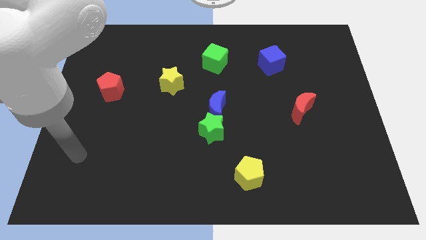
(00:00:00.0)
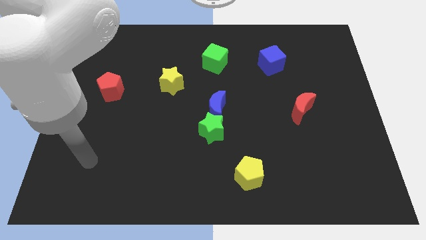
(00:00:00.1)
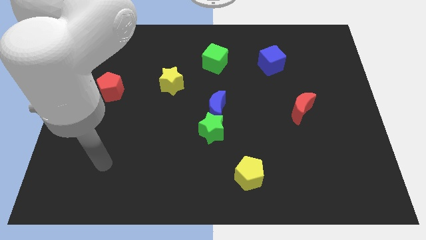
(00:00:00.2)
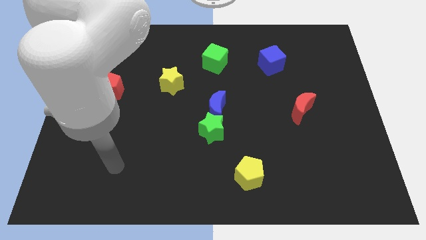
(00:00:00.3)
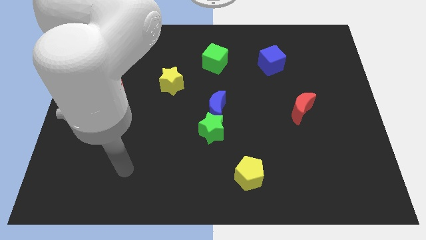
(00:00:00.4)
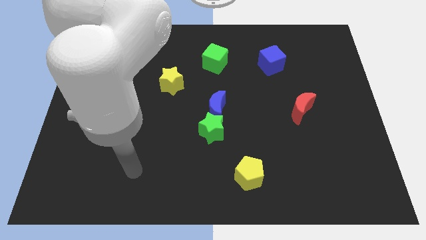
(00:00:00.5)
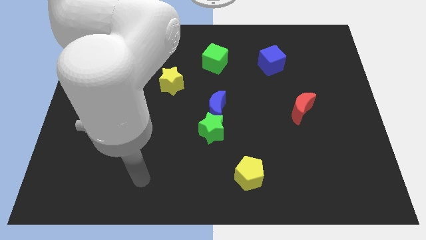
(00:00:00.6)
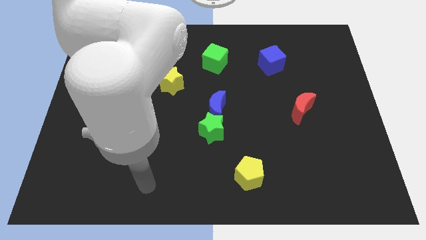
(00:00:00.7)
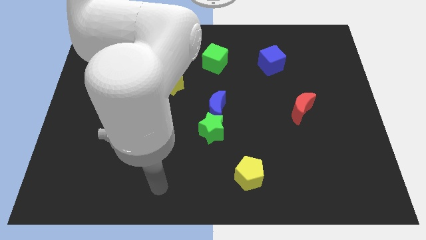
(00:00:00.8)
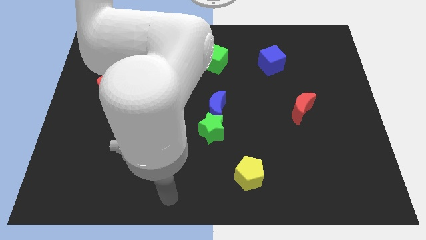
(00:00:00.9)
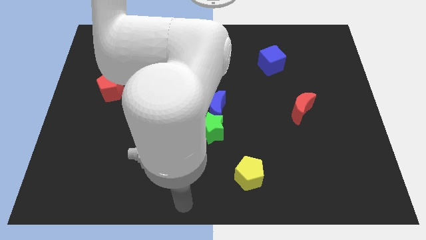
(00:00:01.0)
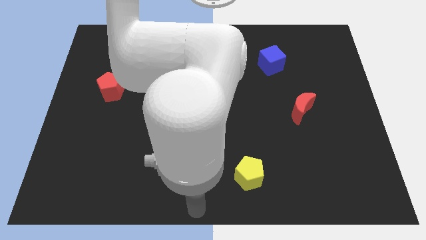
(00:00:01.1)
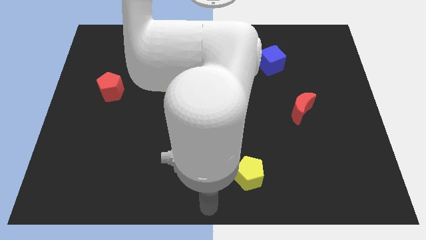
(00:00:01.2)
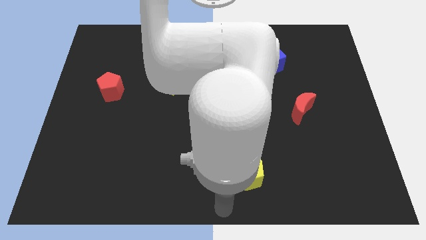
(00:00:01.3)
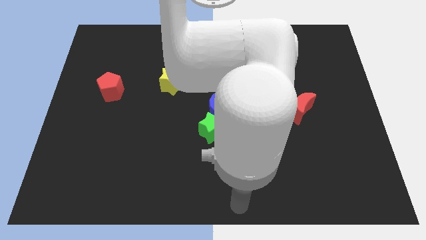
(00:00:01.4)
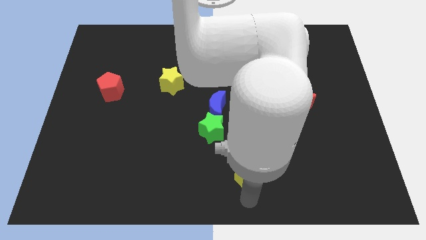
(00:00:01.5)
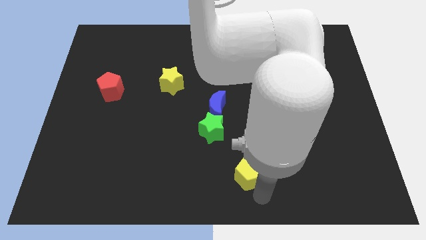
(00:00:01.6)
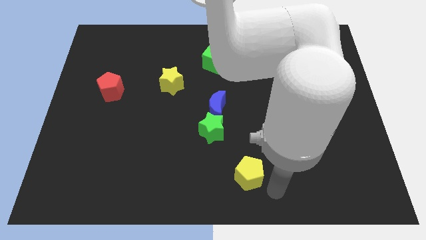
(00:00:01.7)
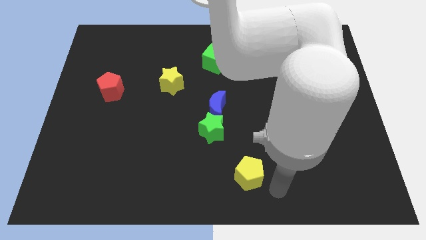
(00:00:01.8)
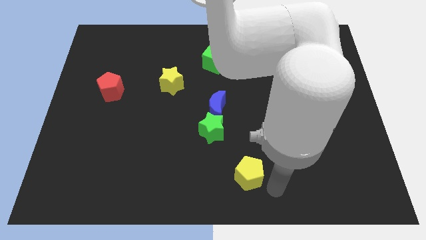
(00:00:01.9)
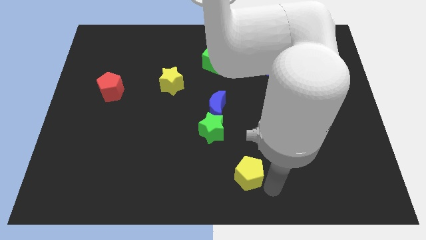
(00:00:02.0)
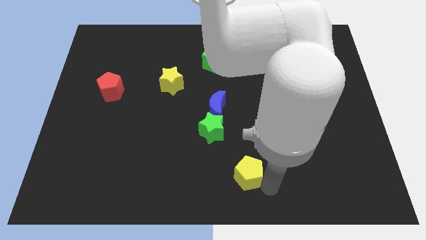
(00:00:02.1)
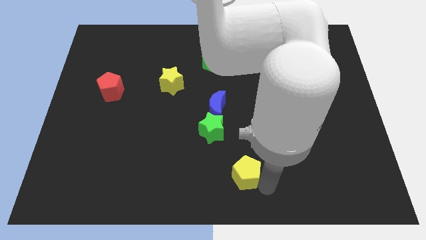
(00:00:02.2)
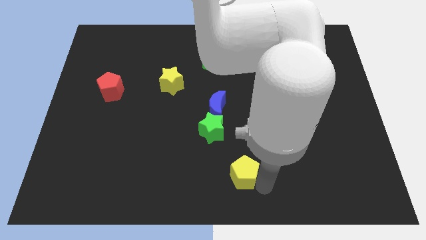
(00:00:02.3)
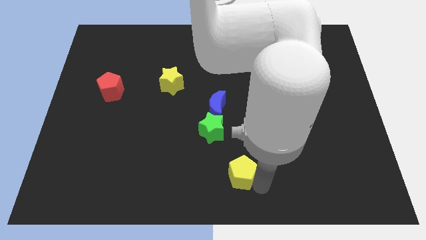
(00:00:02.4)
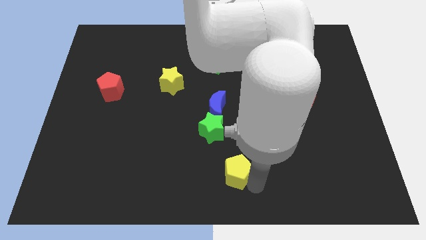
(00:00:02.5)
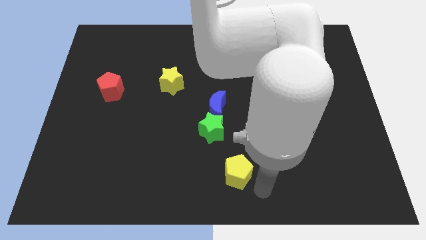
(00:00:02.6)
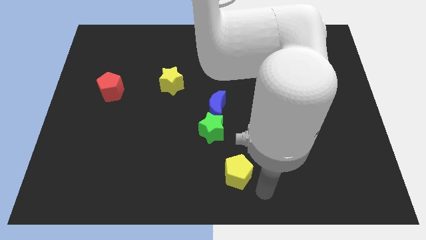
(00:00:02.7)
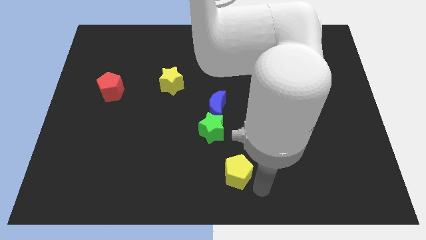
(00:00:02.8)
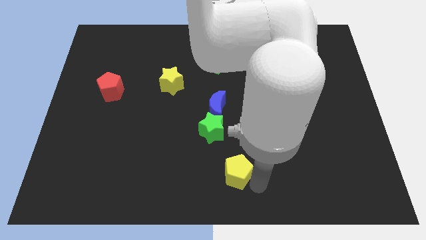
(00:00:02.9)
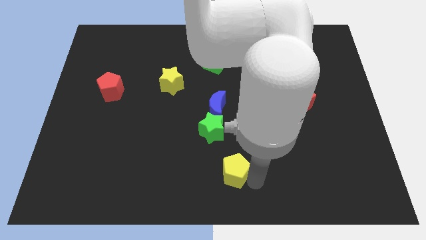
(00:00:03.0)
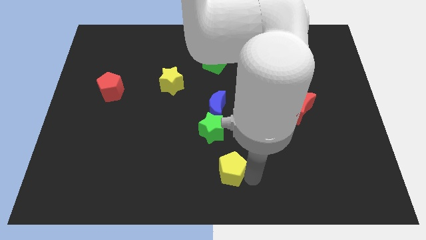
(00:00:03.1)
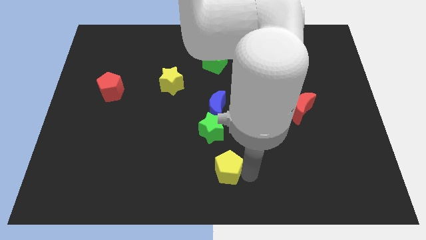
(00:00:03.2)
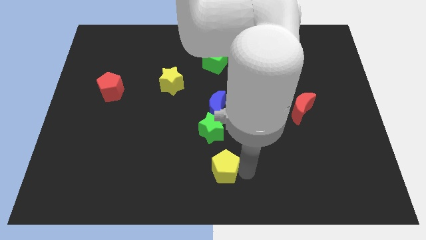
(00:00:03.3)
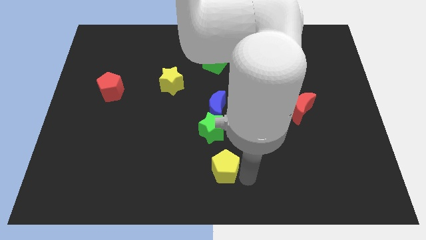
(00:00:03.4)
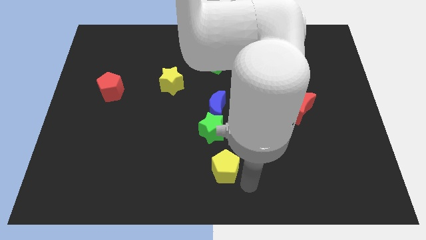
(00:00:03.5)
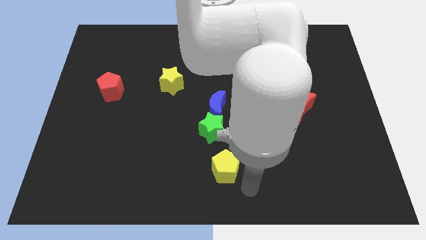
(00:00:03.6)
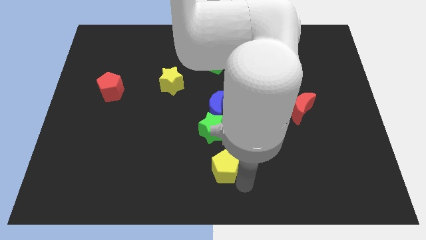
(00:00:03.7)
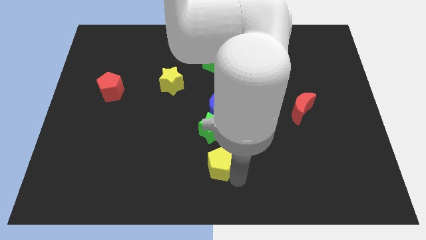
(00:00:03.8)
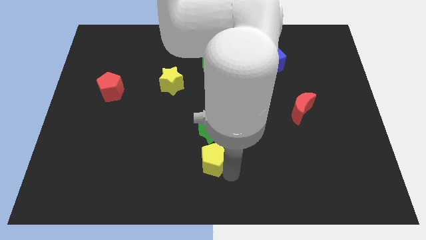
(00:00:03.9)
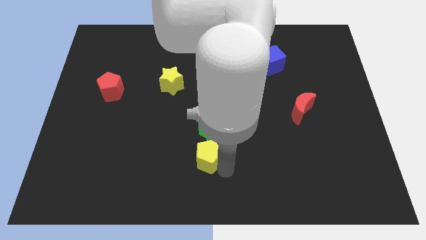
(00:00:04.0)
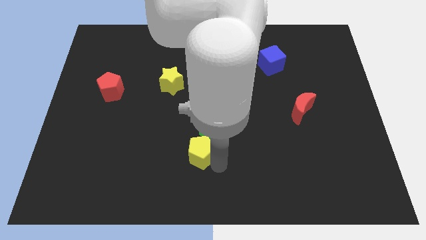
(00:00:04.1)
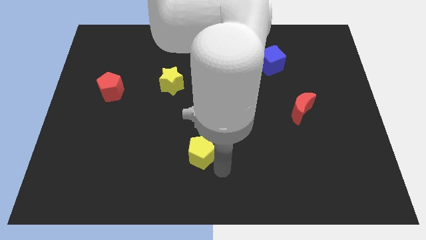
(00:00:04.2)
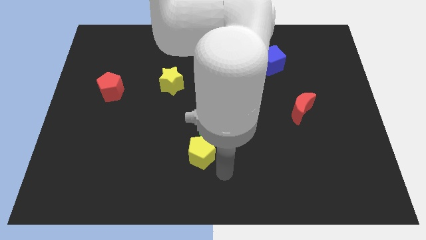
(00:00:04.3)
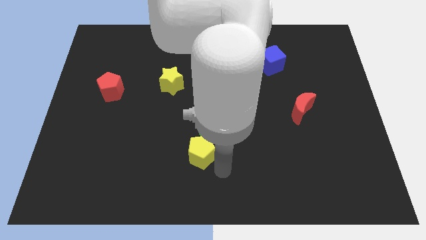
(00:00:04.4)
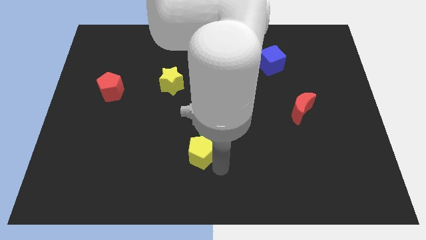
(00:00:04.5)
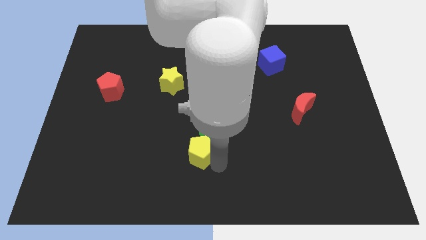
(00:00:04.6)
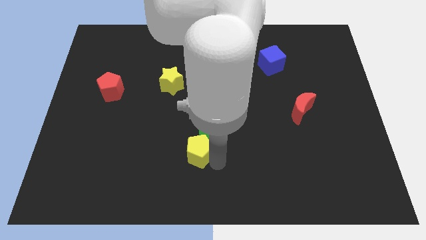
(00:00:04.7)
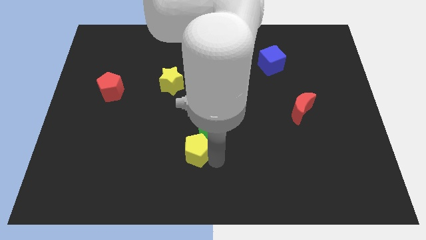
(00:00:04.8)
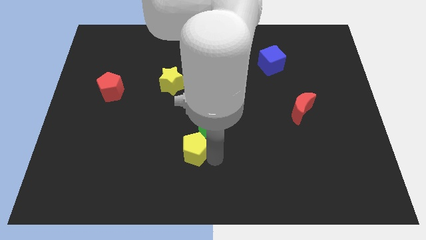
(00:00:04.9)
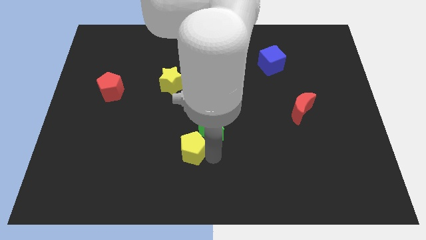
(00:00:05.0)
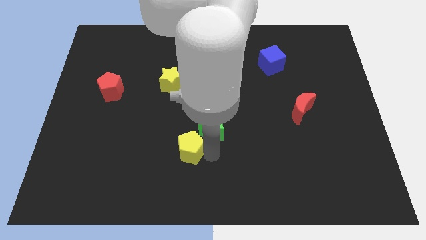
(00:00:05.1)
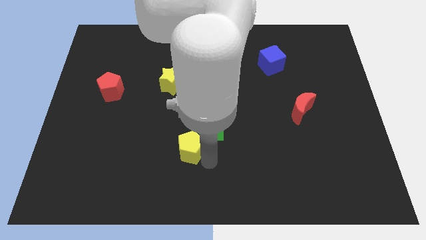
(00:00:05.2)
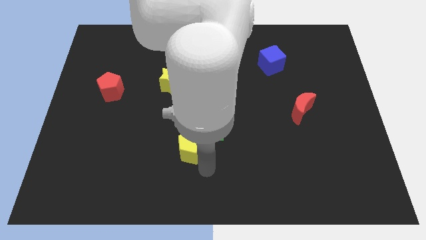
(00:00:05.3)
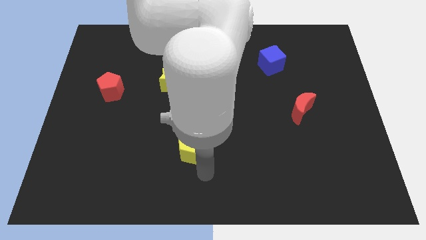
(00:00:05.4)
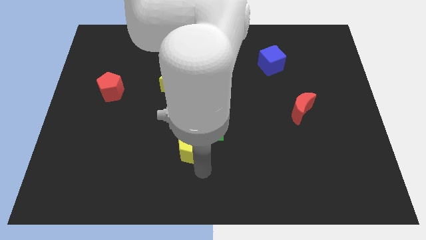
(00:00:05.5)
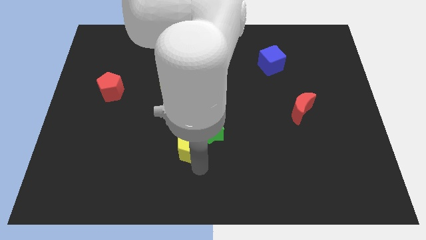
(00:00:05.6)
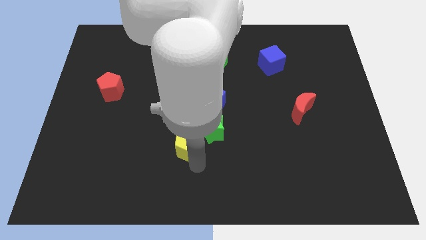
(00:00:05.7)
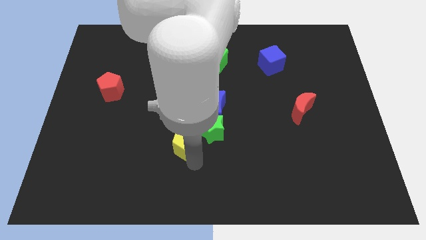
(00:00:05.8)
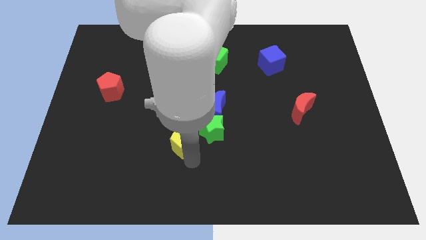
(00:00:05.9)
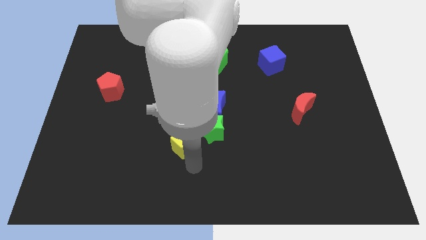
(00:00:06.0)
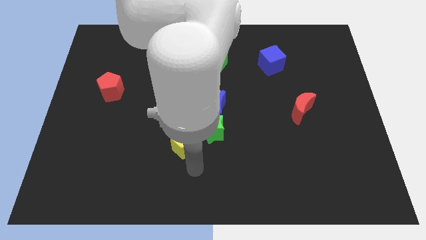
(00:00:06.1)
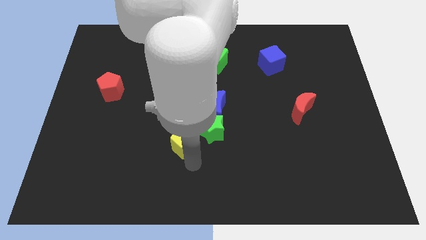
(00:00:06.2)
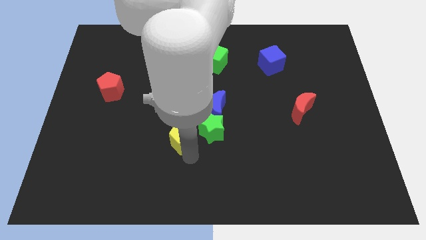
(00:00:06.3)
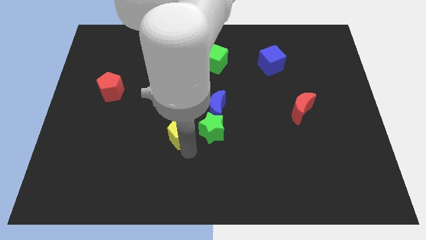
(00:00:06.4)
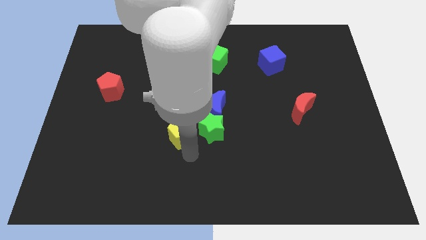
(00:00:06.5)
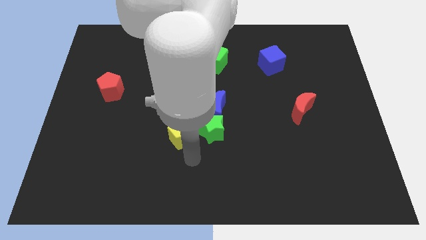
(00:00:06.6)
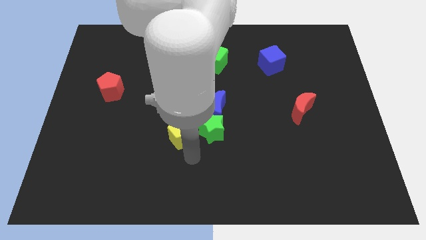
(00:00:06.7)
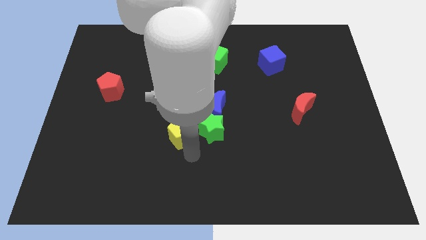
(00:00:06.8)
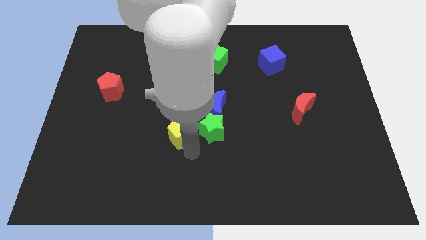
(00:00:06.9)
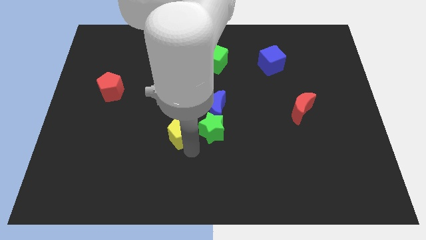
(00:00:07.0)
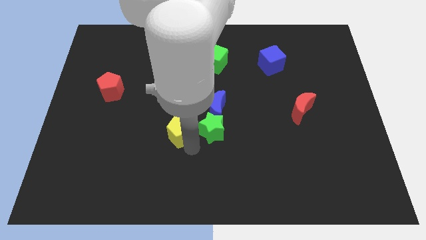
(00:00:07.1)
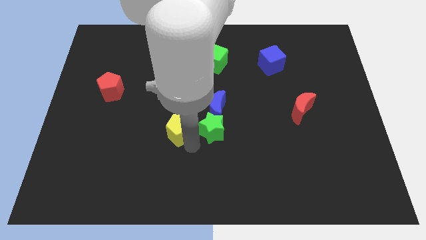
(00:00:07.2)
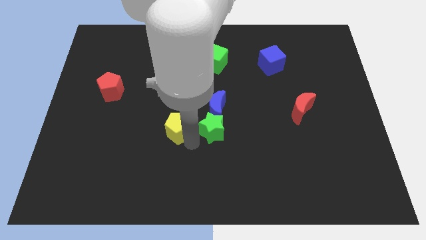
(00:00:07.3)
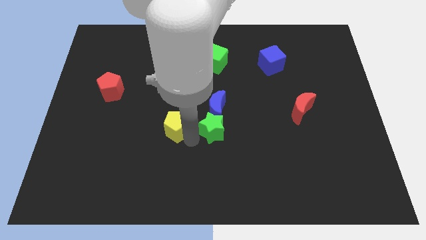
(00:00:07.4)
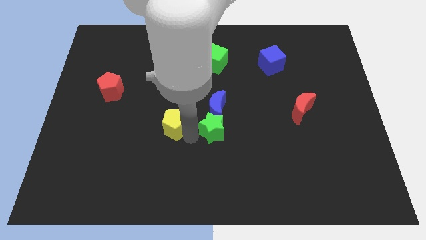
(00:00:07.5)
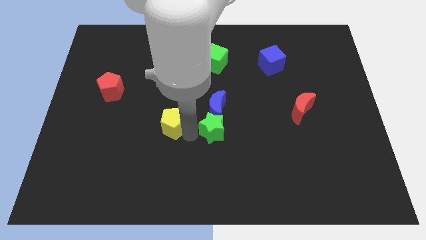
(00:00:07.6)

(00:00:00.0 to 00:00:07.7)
slide the yellow pentagon upwards and then to the left

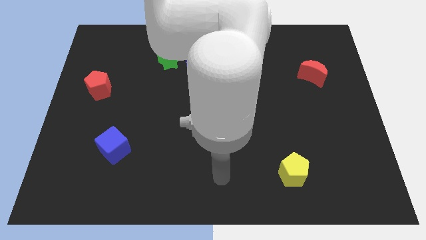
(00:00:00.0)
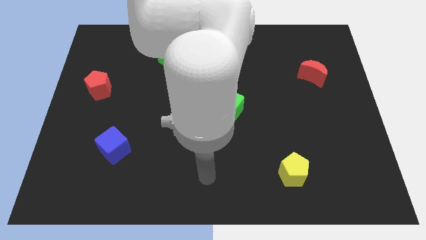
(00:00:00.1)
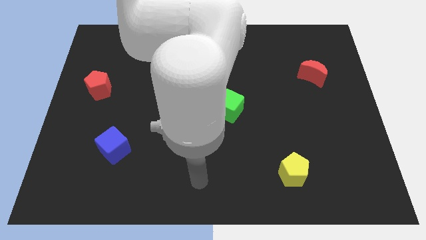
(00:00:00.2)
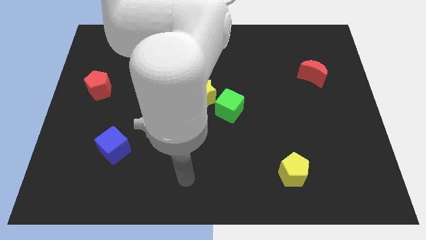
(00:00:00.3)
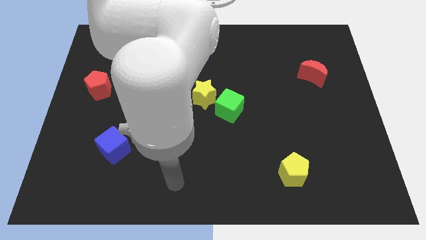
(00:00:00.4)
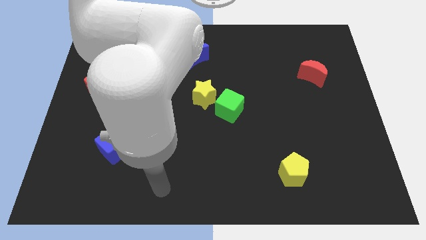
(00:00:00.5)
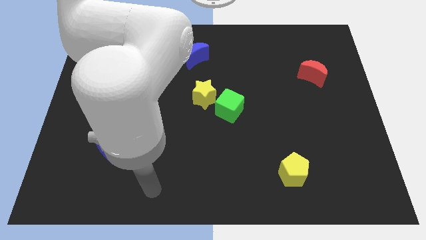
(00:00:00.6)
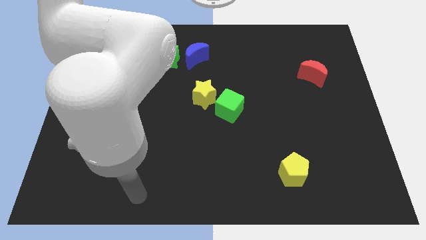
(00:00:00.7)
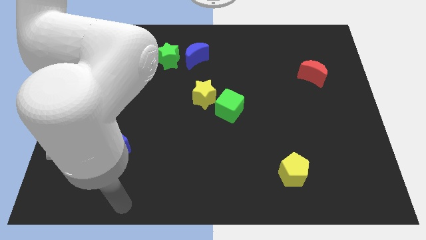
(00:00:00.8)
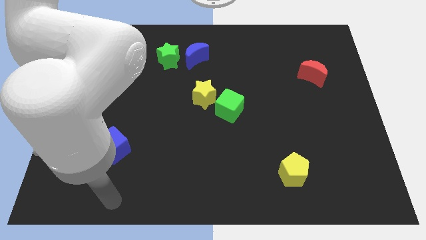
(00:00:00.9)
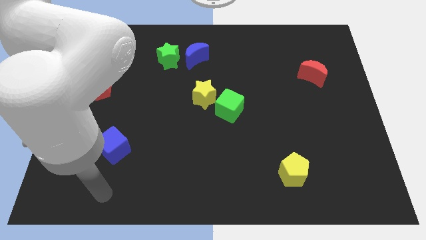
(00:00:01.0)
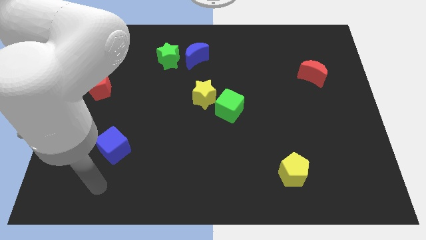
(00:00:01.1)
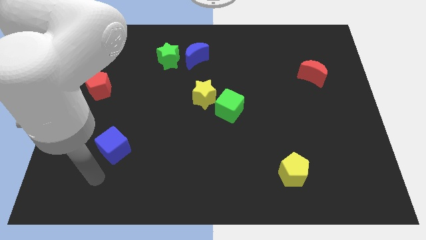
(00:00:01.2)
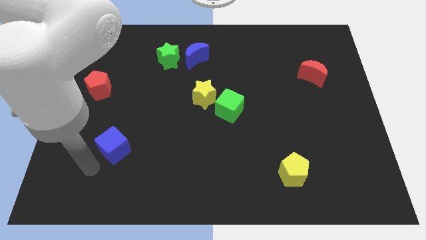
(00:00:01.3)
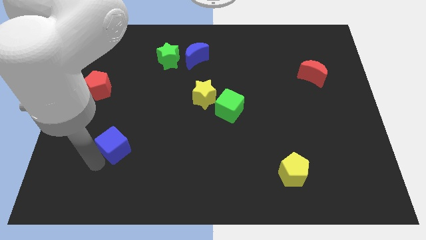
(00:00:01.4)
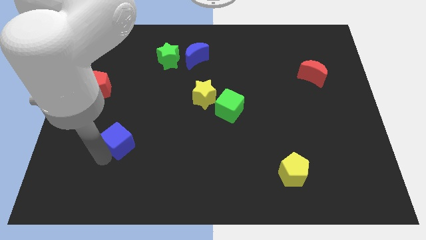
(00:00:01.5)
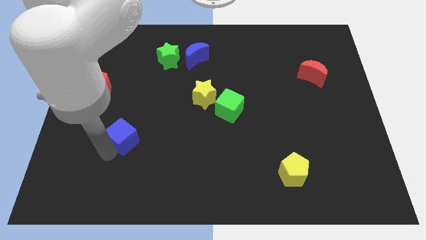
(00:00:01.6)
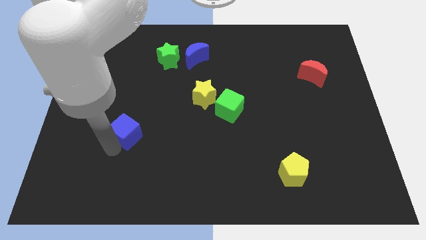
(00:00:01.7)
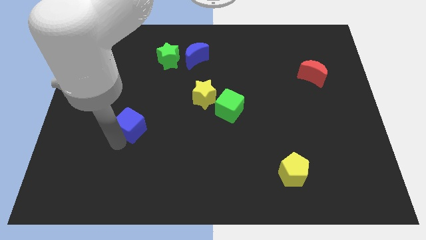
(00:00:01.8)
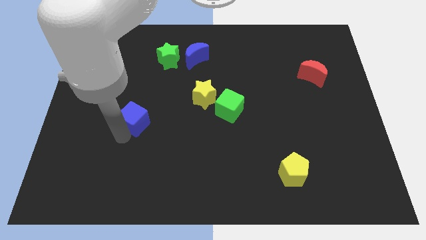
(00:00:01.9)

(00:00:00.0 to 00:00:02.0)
slide the blue cube slightly up and to the right
